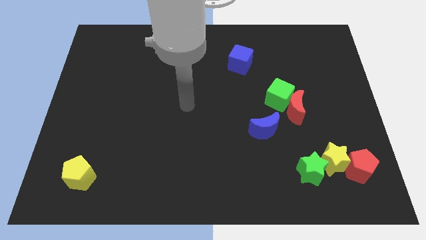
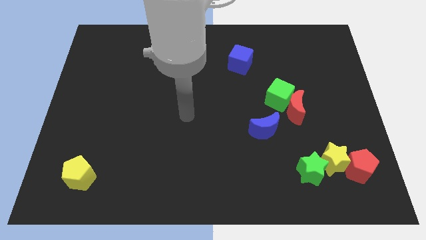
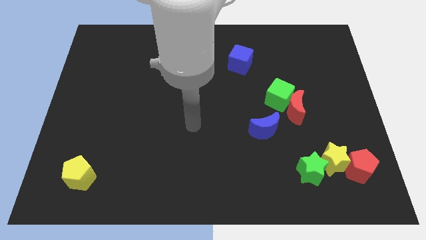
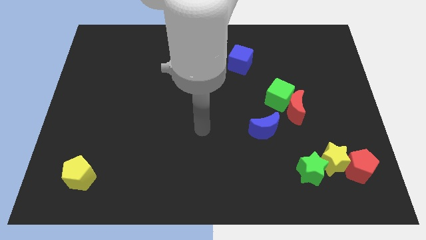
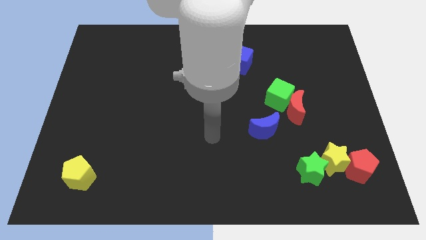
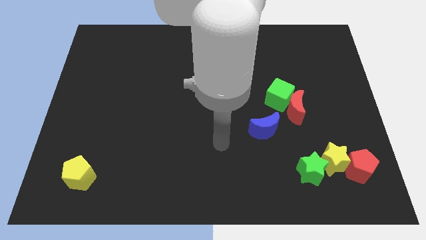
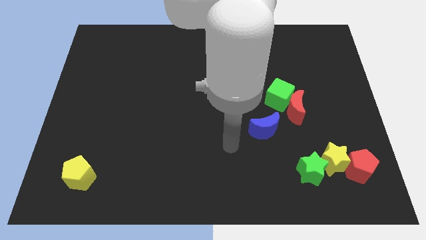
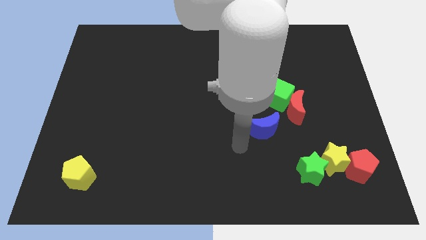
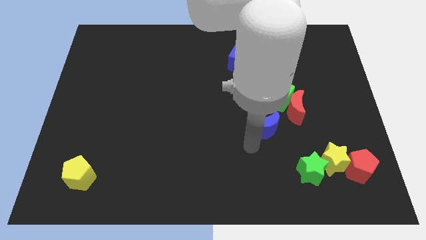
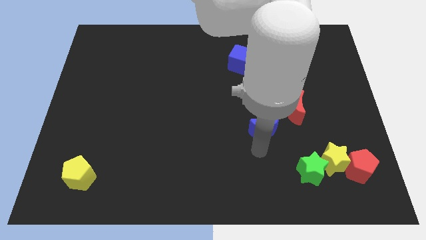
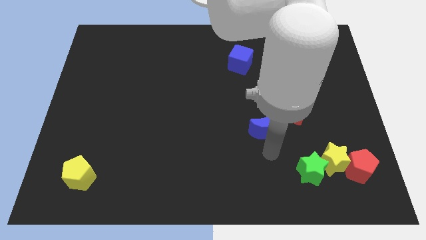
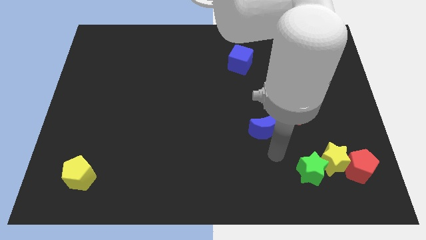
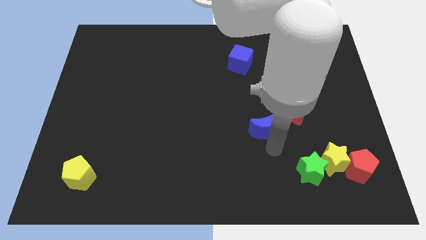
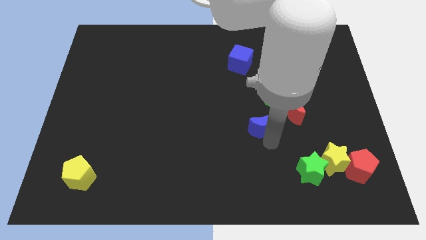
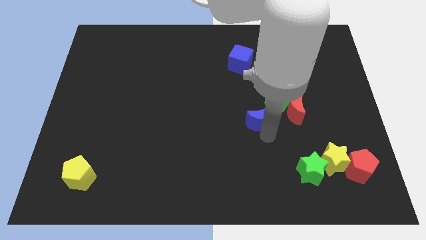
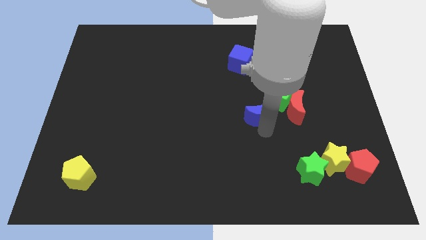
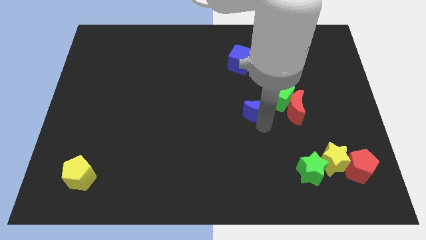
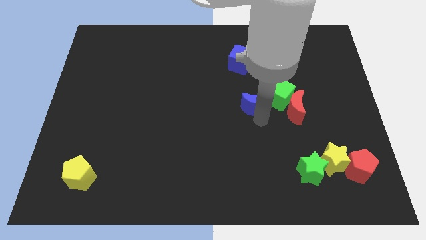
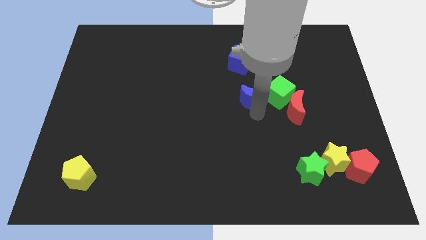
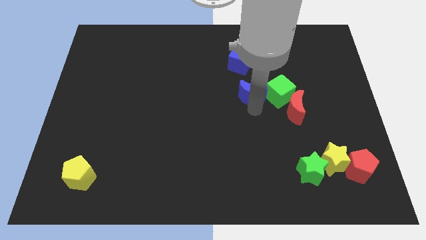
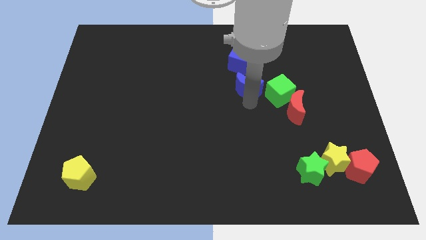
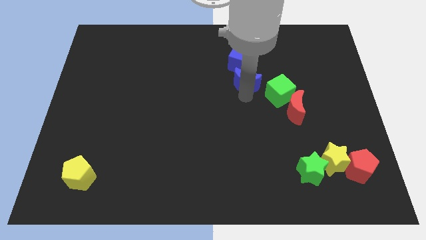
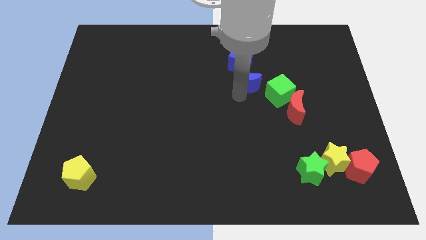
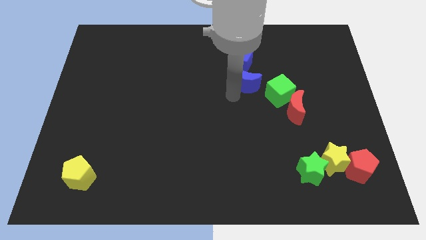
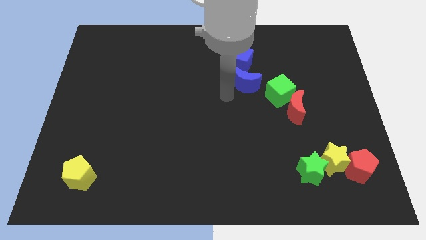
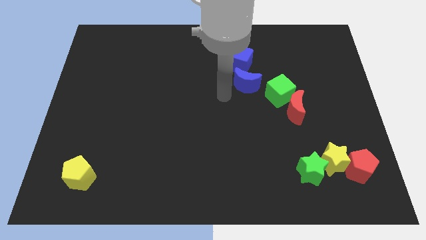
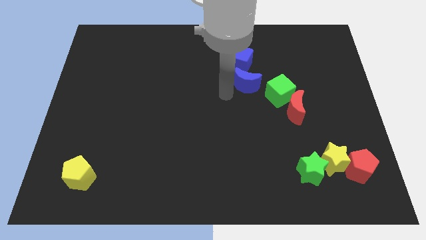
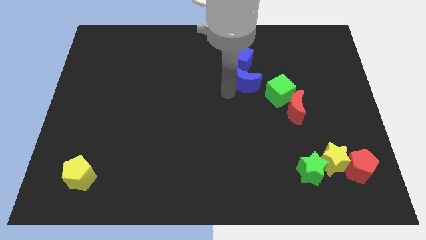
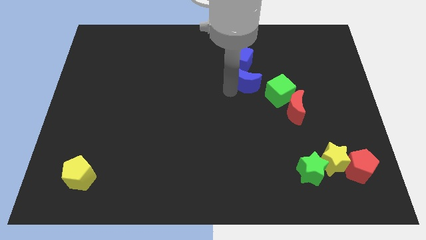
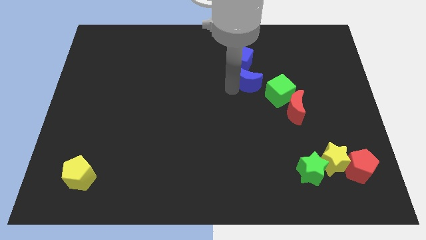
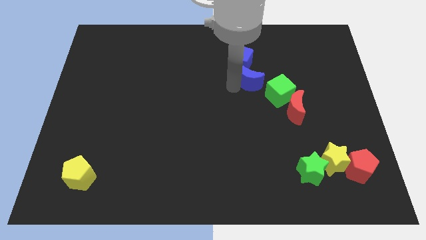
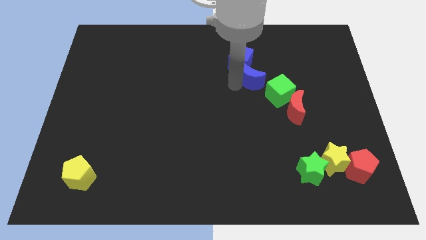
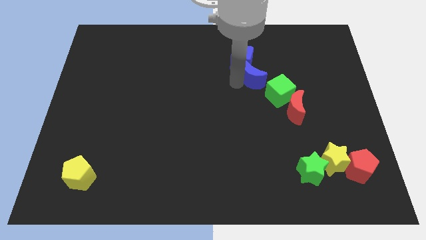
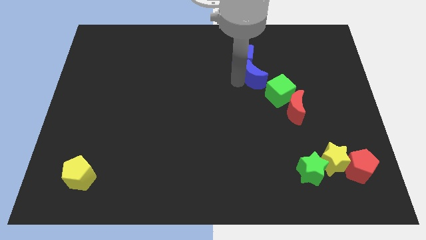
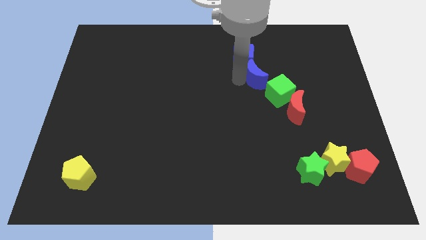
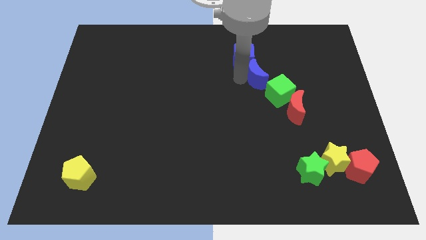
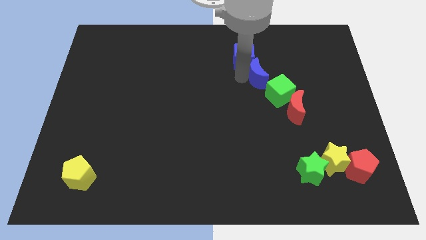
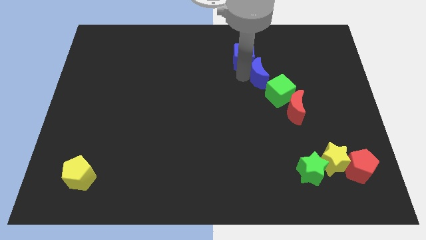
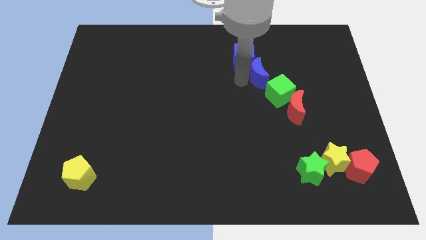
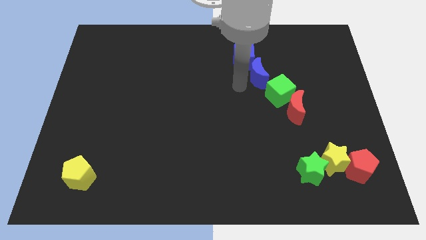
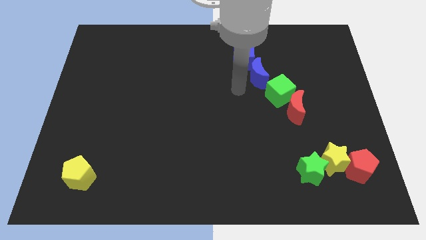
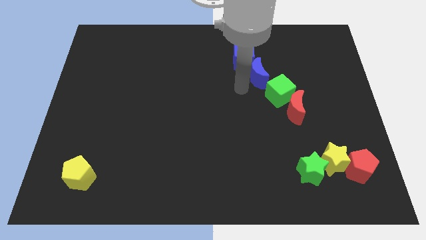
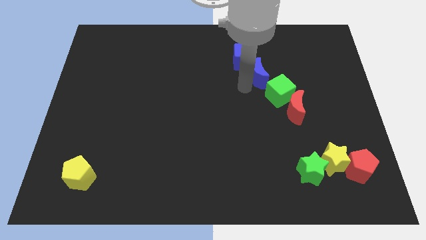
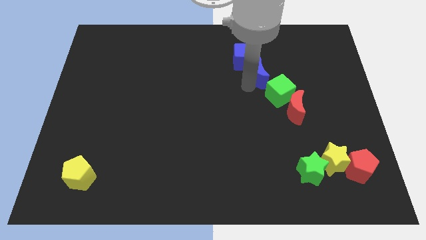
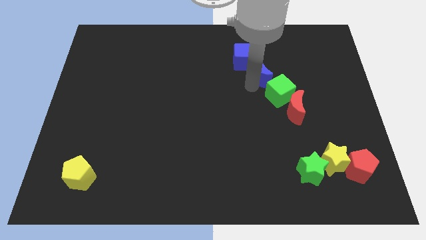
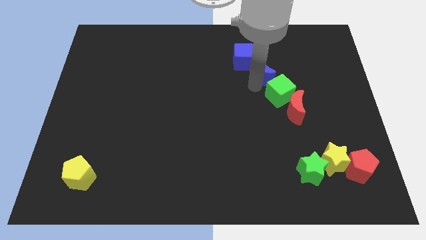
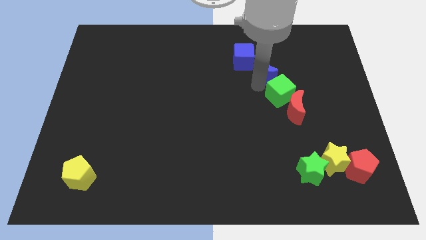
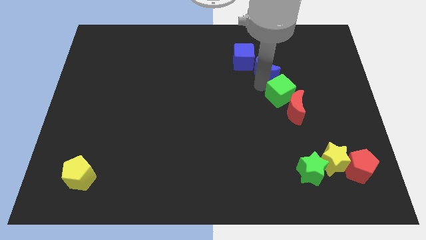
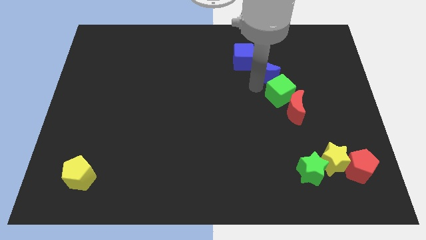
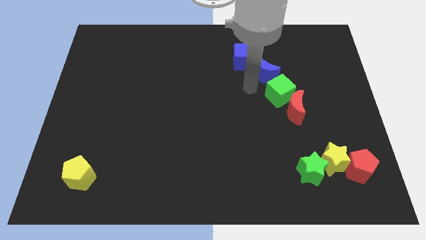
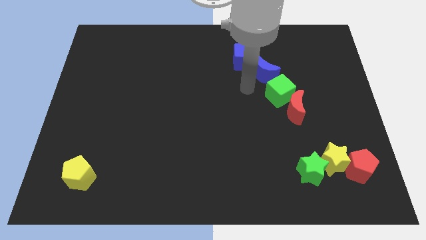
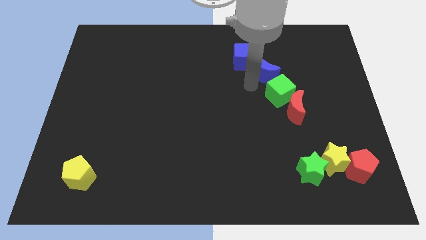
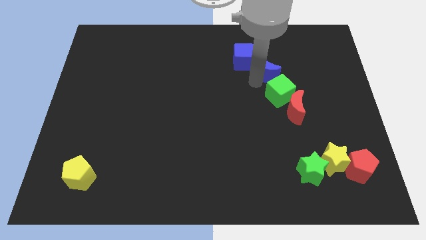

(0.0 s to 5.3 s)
push the blue moon to the right side of the blue cube

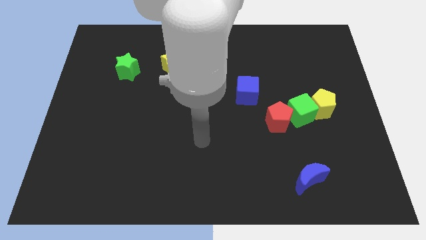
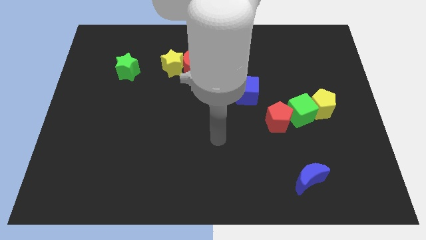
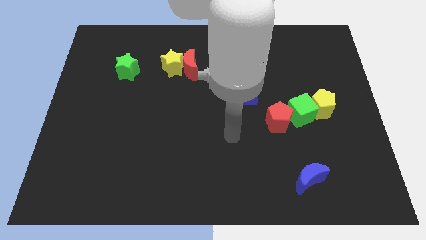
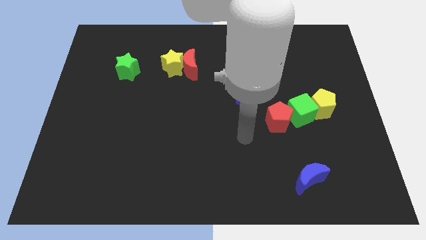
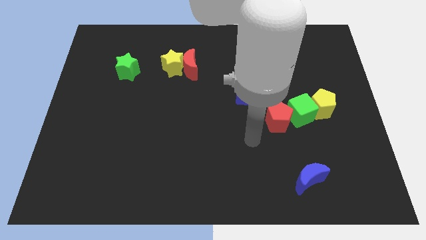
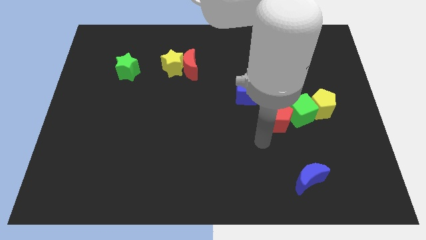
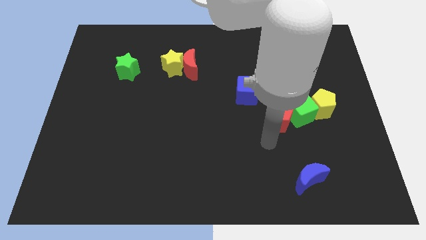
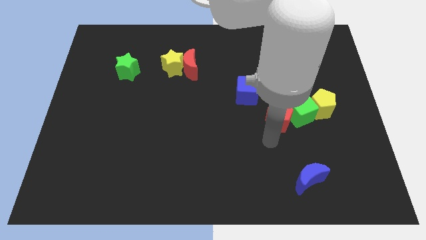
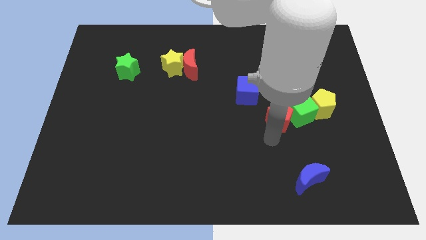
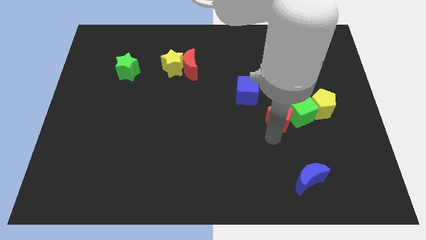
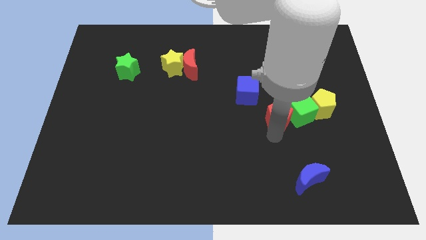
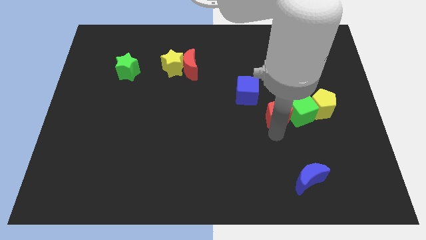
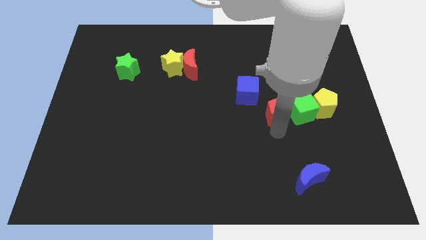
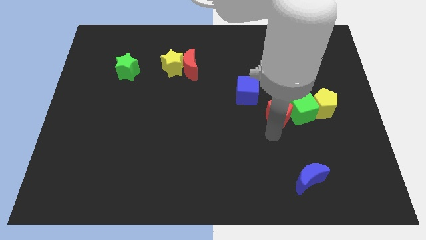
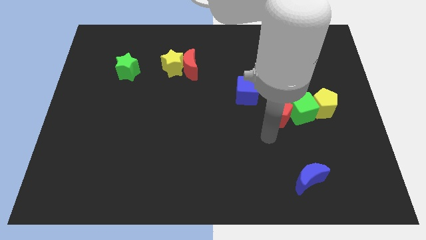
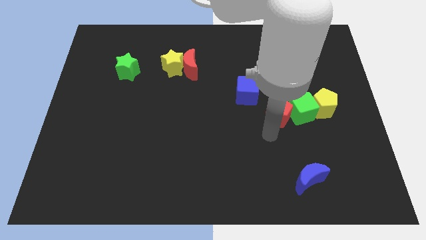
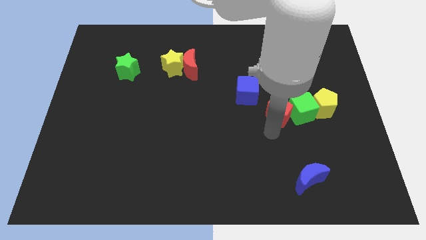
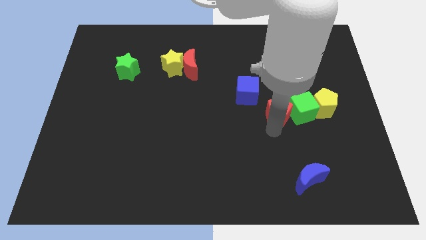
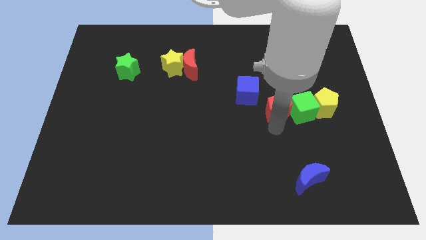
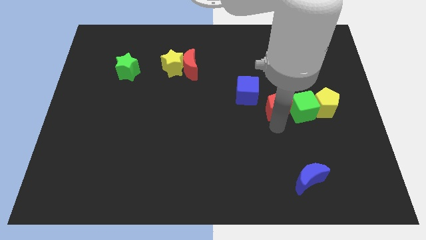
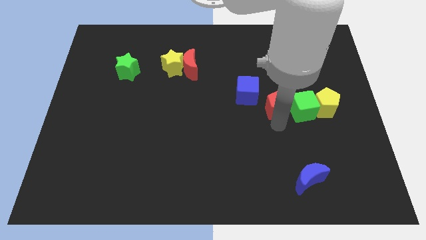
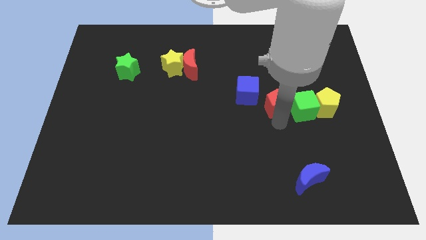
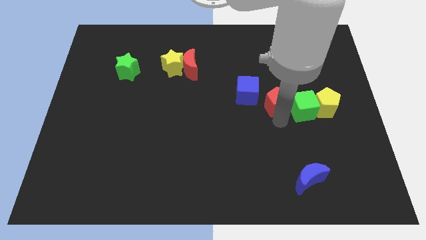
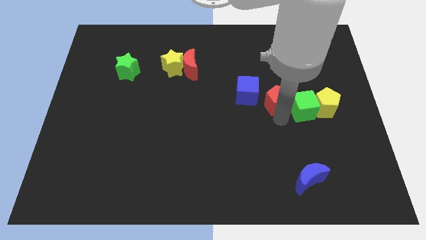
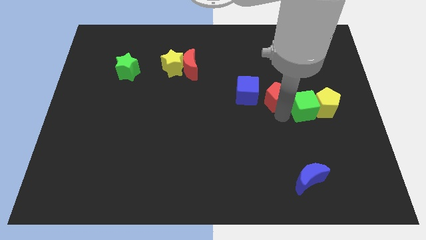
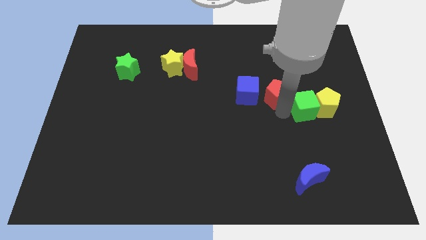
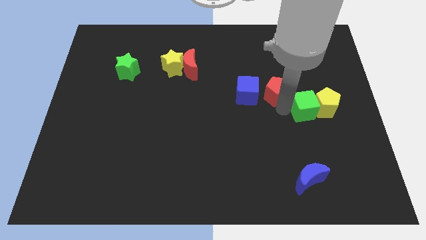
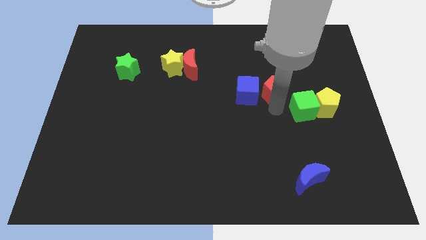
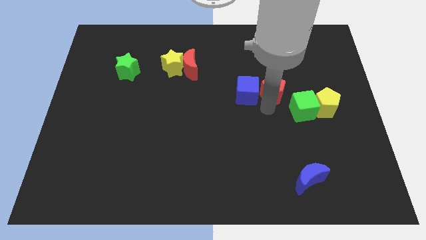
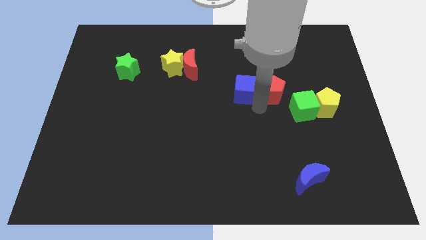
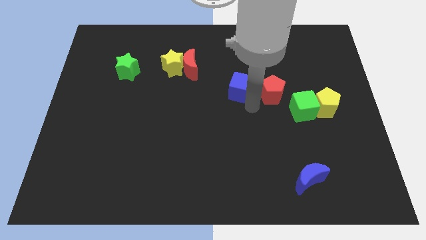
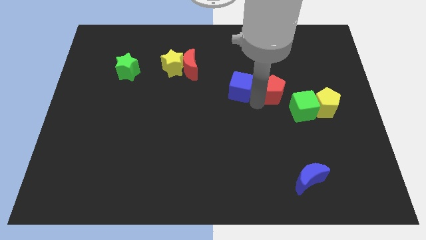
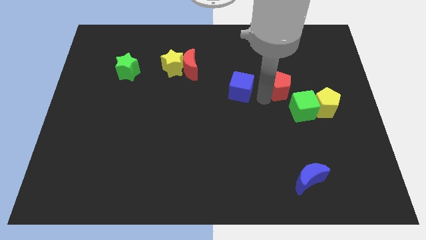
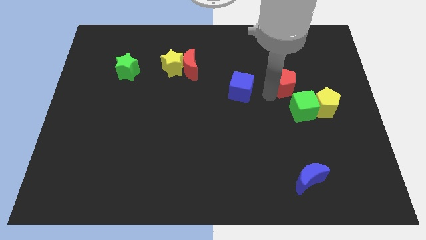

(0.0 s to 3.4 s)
push the red pentagon to the top side of the green cube
